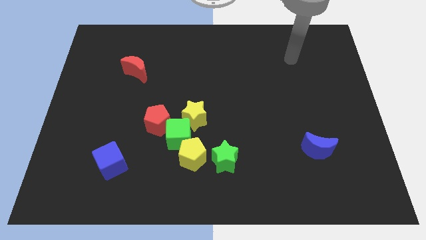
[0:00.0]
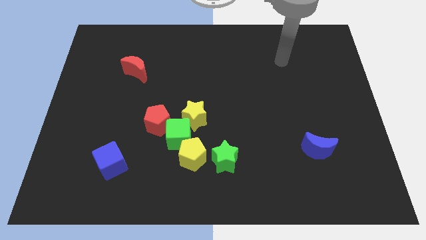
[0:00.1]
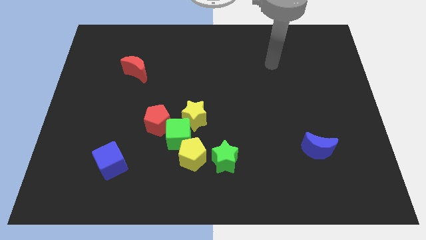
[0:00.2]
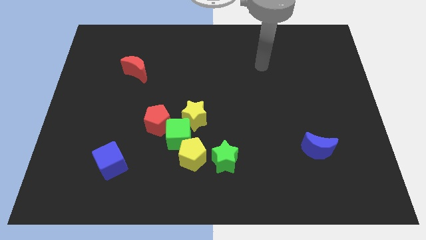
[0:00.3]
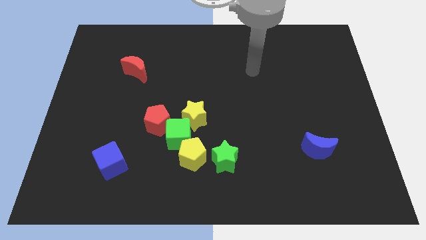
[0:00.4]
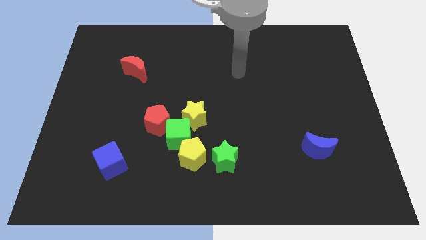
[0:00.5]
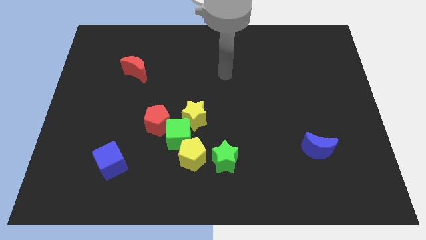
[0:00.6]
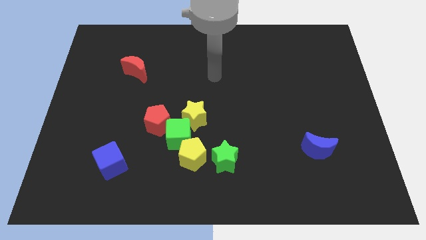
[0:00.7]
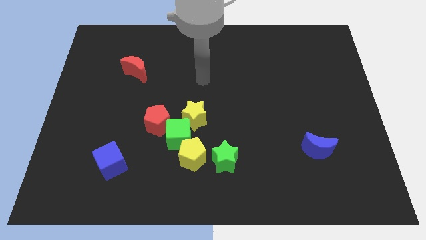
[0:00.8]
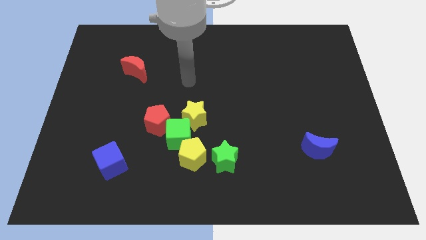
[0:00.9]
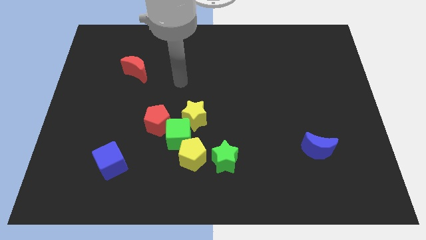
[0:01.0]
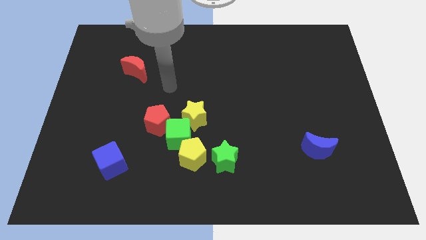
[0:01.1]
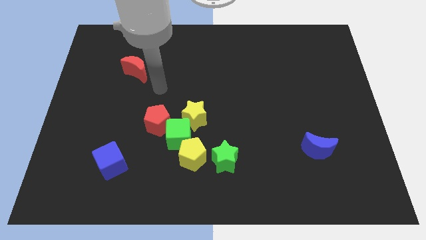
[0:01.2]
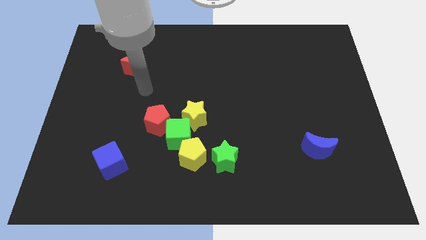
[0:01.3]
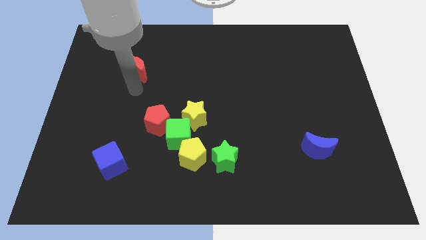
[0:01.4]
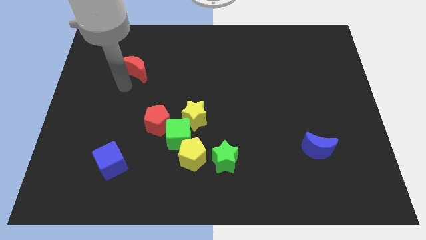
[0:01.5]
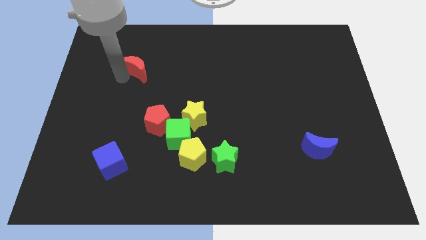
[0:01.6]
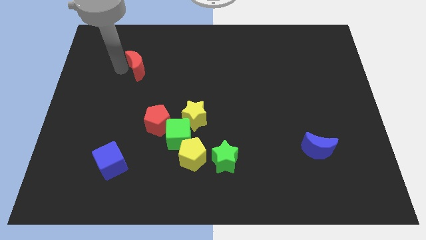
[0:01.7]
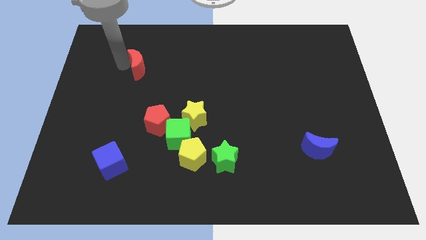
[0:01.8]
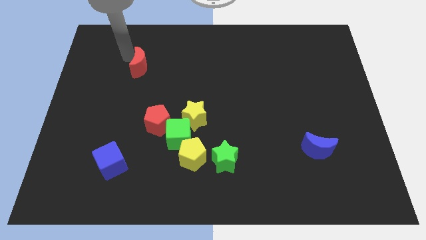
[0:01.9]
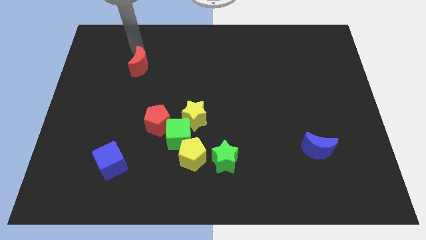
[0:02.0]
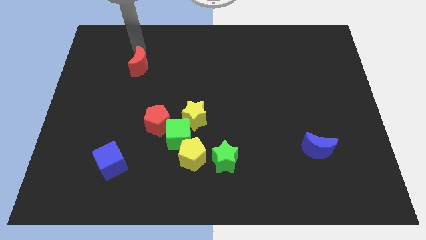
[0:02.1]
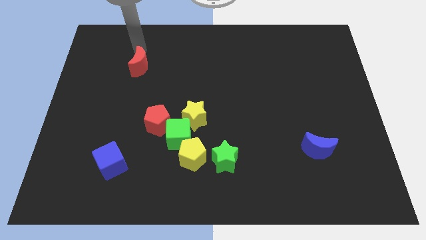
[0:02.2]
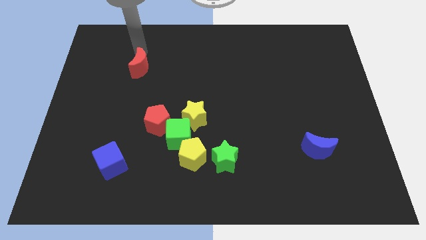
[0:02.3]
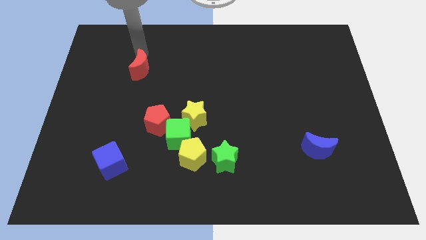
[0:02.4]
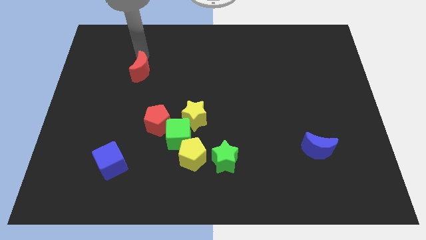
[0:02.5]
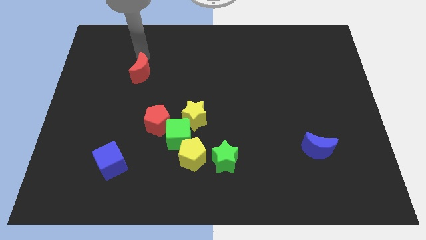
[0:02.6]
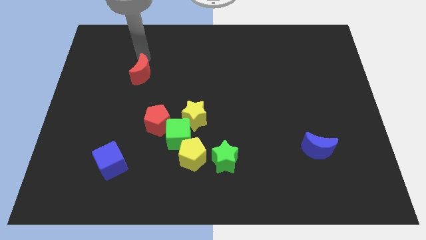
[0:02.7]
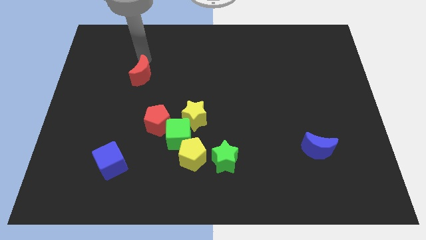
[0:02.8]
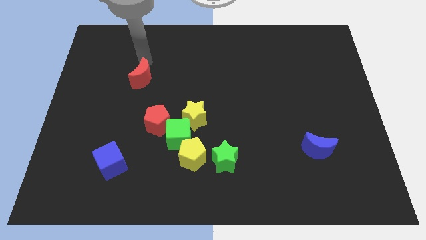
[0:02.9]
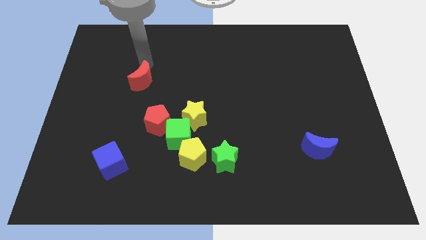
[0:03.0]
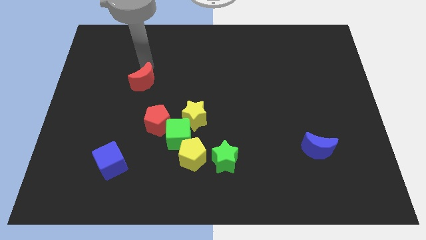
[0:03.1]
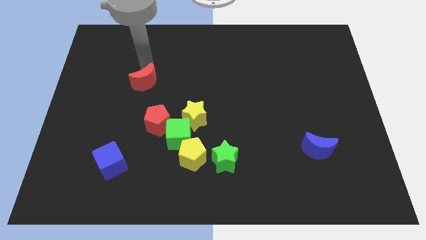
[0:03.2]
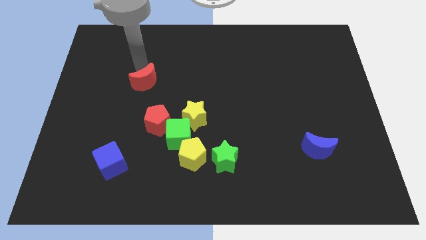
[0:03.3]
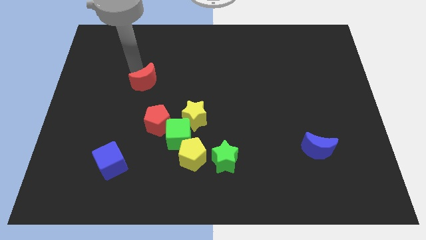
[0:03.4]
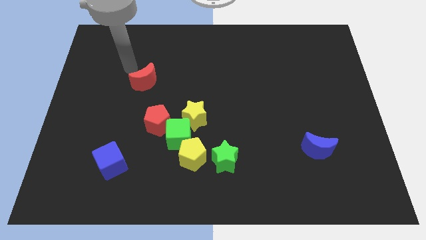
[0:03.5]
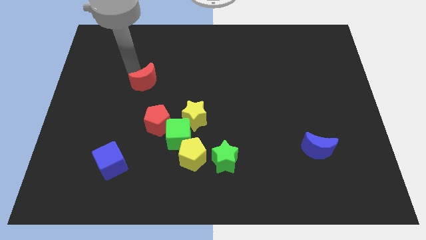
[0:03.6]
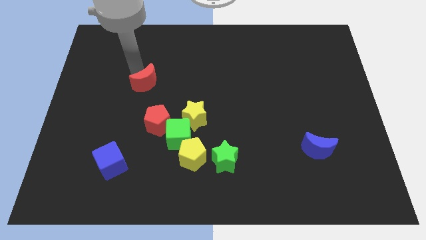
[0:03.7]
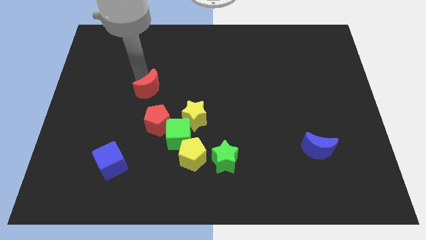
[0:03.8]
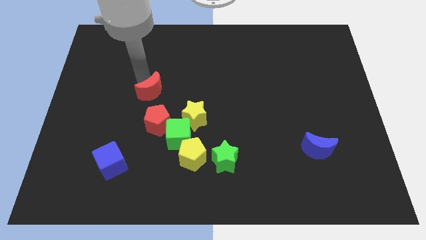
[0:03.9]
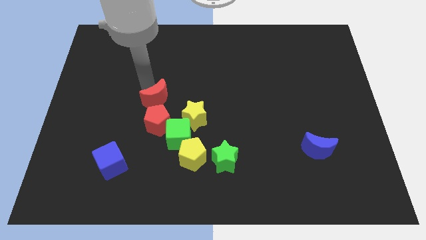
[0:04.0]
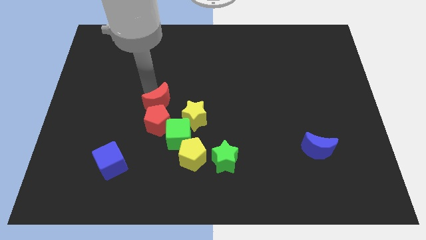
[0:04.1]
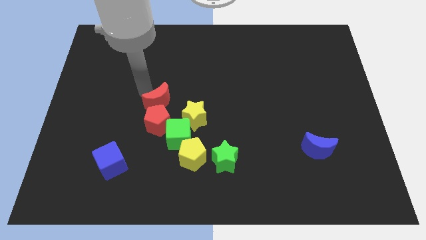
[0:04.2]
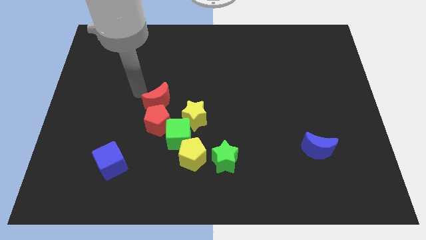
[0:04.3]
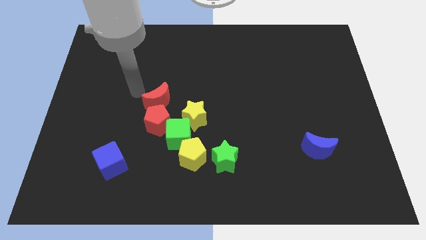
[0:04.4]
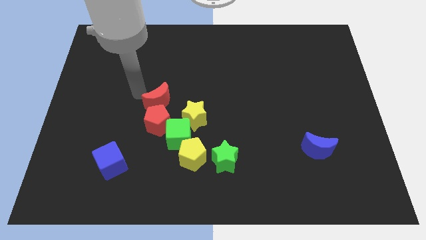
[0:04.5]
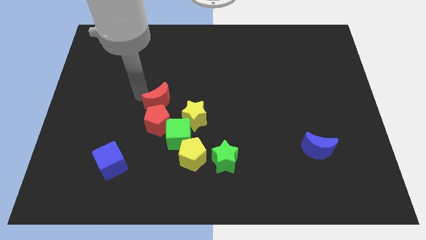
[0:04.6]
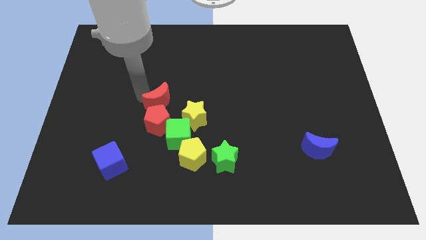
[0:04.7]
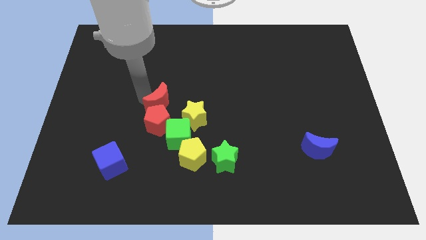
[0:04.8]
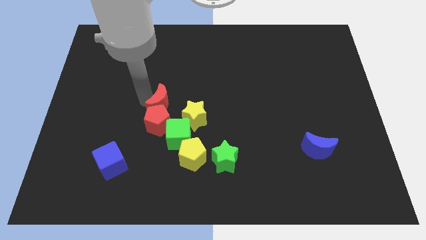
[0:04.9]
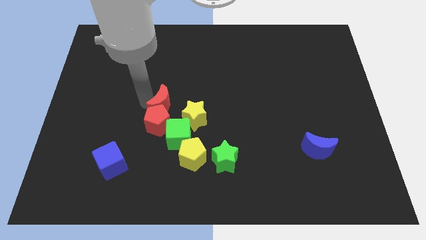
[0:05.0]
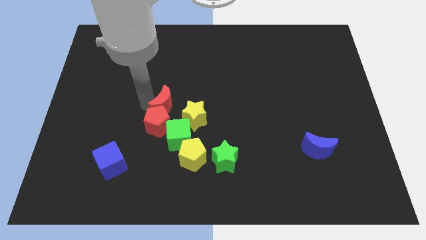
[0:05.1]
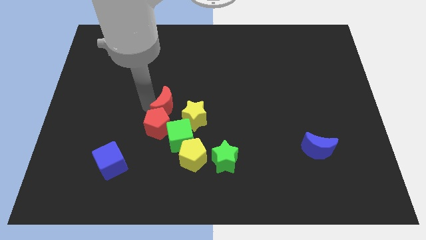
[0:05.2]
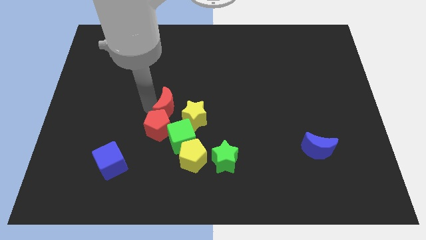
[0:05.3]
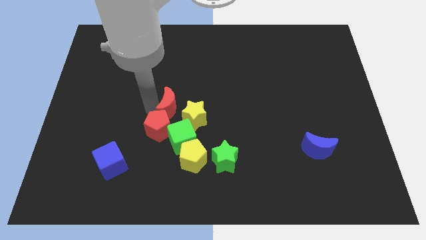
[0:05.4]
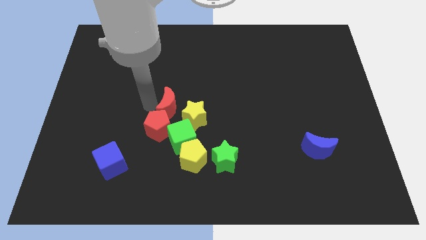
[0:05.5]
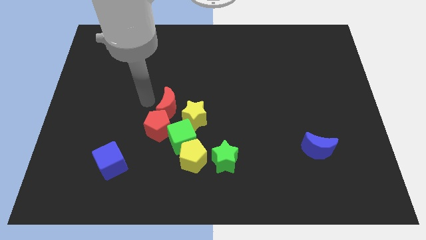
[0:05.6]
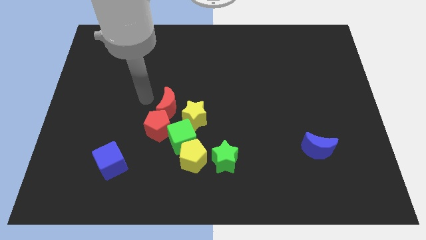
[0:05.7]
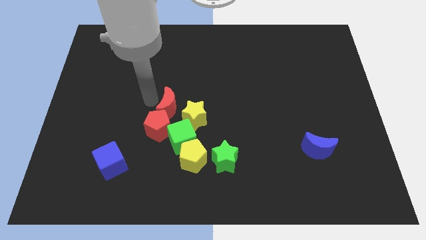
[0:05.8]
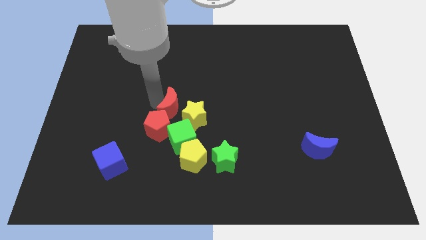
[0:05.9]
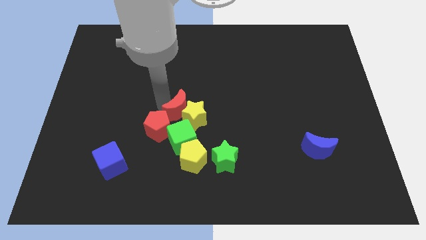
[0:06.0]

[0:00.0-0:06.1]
push the red moon close to the yellow star

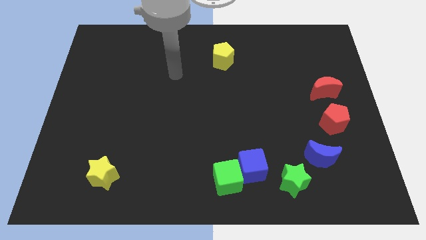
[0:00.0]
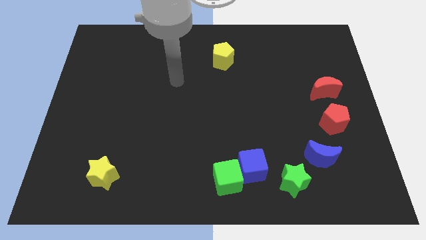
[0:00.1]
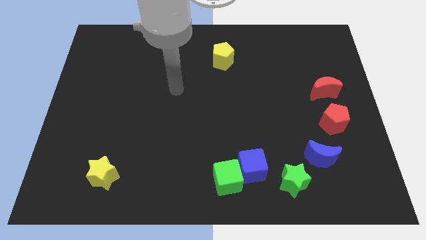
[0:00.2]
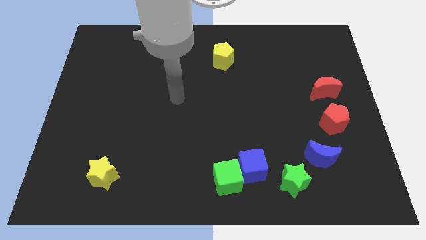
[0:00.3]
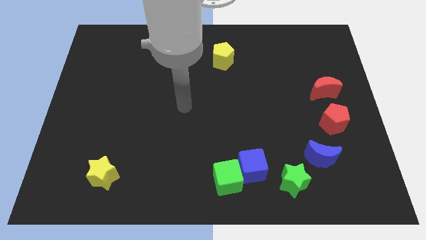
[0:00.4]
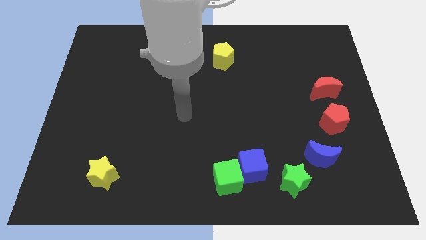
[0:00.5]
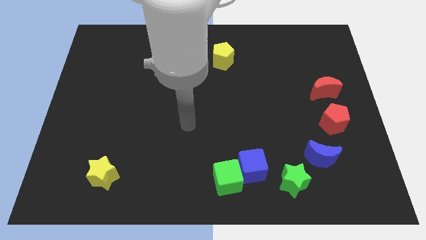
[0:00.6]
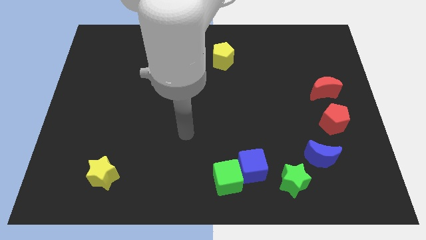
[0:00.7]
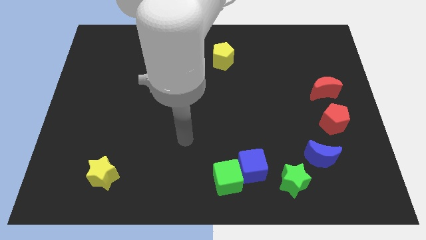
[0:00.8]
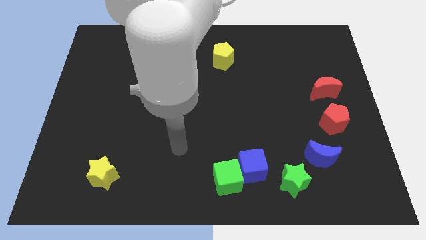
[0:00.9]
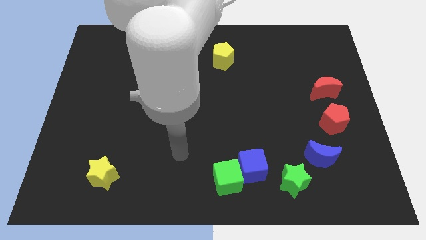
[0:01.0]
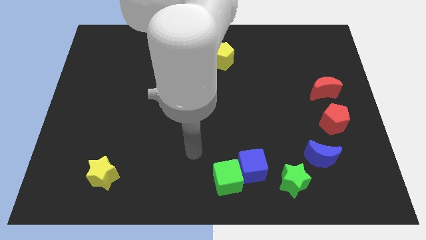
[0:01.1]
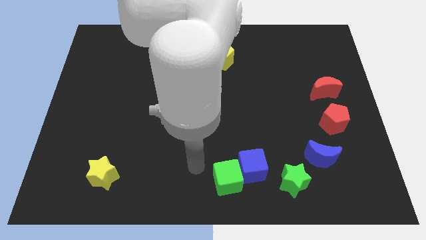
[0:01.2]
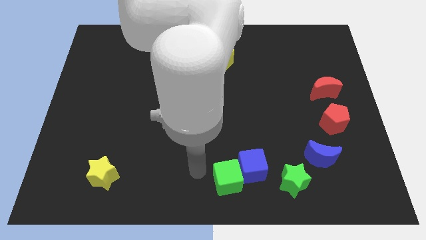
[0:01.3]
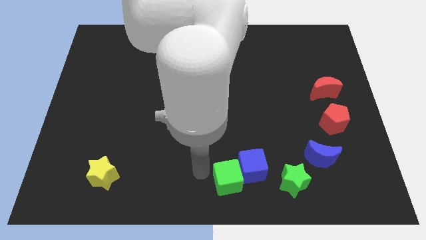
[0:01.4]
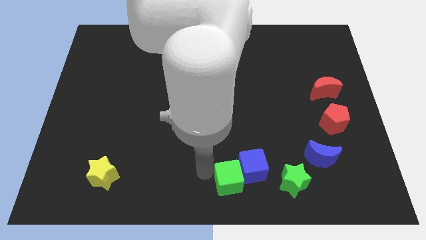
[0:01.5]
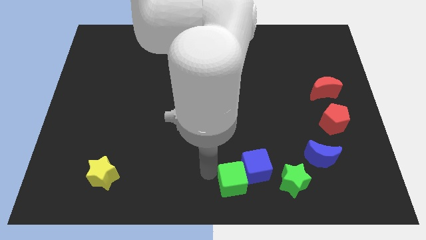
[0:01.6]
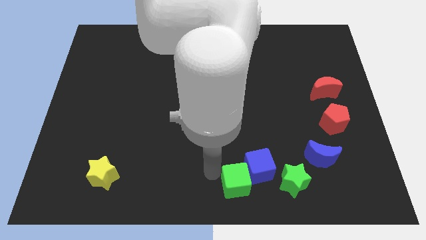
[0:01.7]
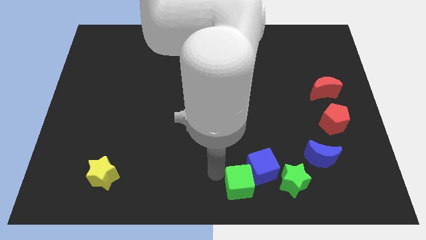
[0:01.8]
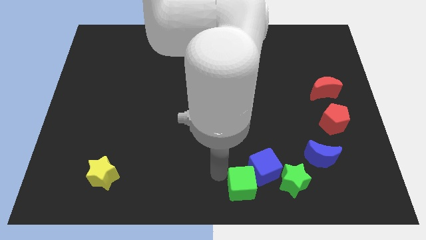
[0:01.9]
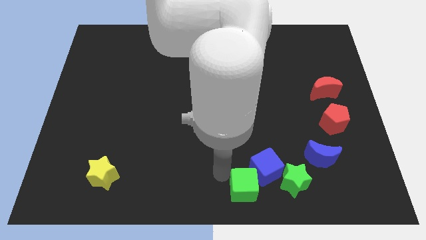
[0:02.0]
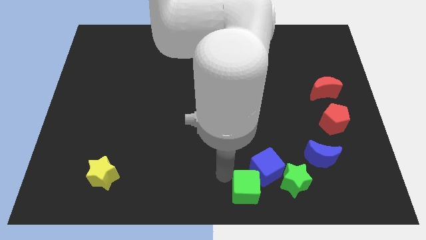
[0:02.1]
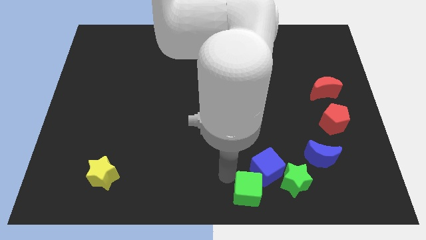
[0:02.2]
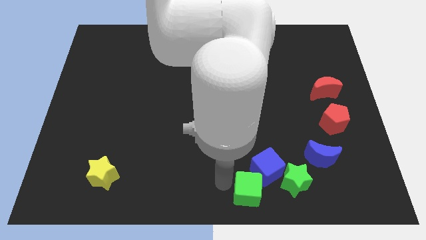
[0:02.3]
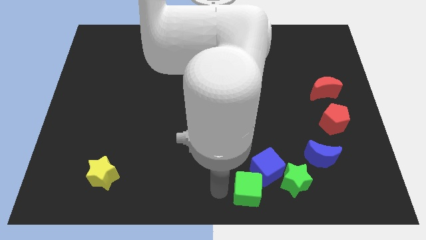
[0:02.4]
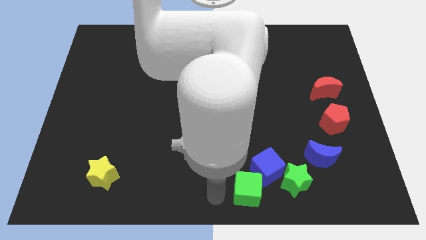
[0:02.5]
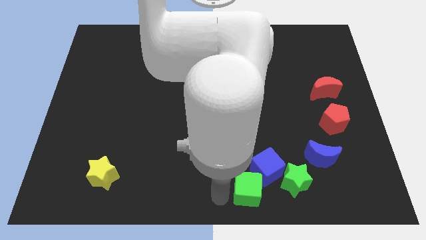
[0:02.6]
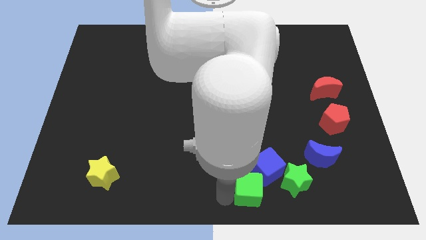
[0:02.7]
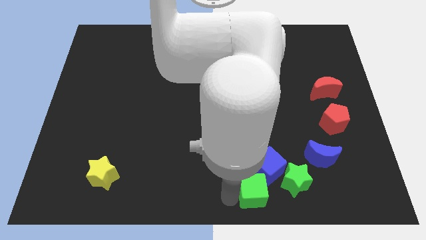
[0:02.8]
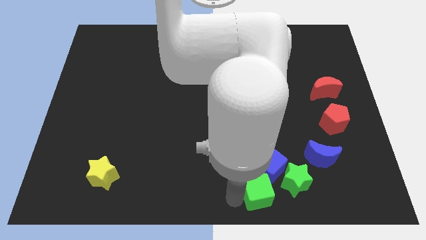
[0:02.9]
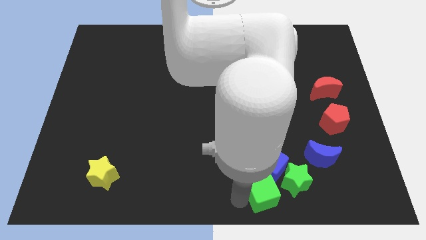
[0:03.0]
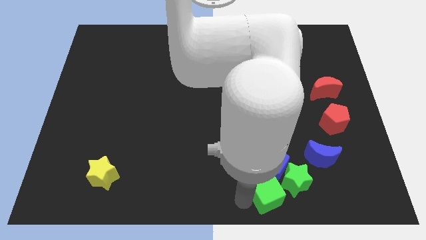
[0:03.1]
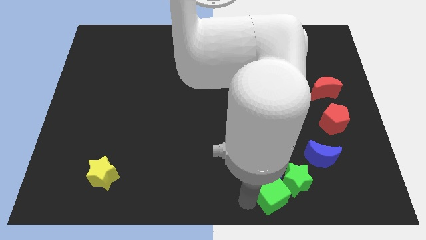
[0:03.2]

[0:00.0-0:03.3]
put the green cube next to the green star
